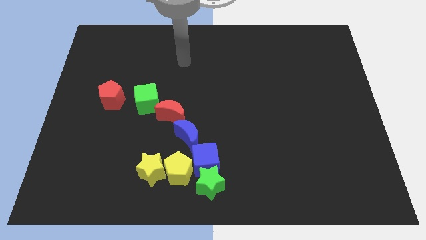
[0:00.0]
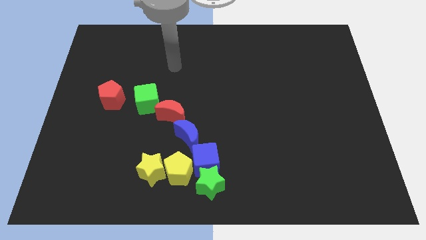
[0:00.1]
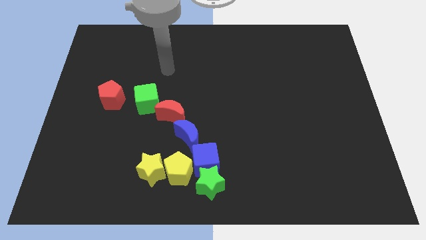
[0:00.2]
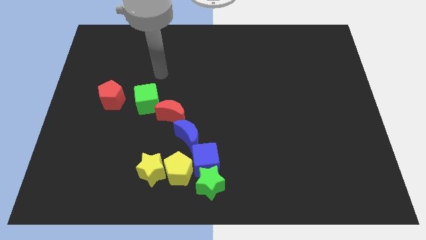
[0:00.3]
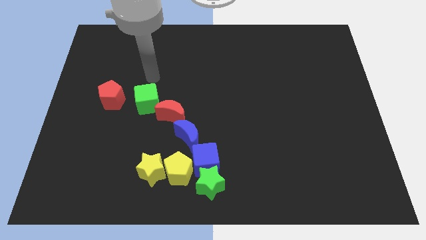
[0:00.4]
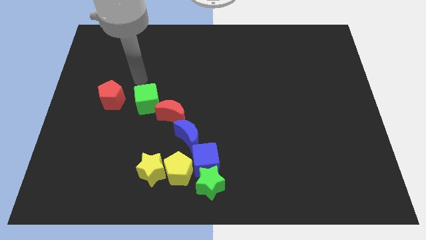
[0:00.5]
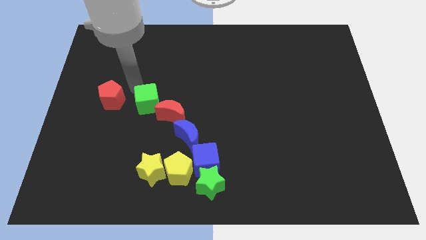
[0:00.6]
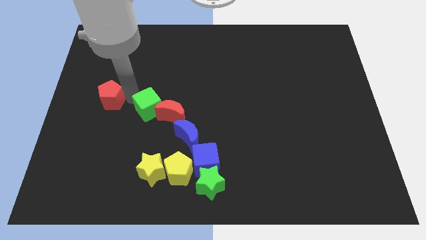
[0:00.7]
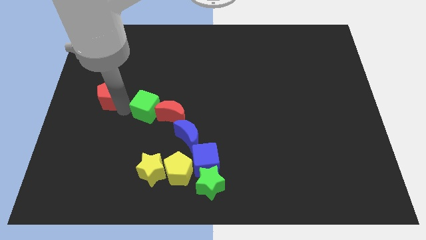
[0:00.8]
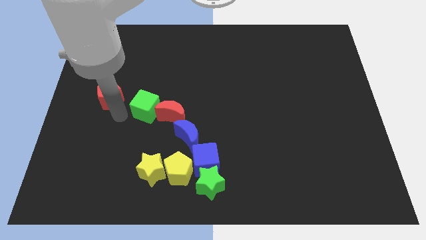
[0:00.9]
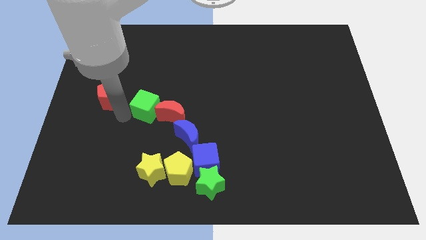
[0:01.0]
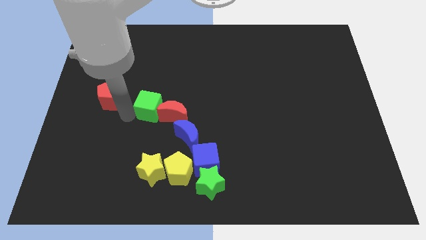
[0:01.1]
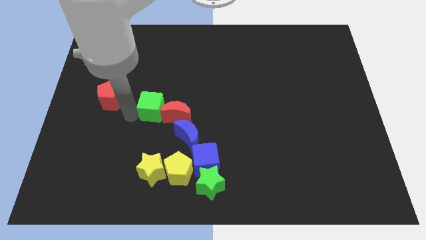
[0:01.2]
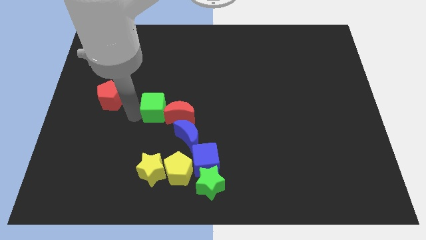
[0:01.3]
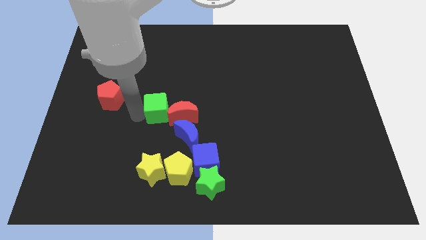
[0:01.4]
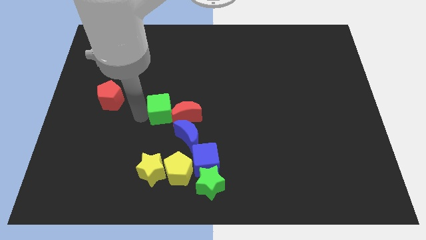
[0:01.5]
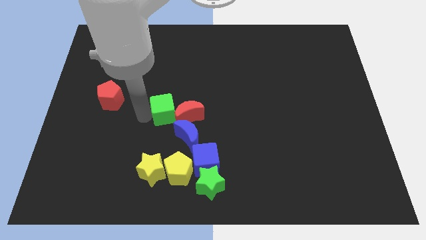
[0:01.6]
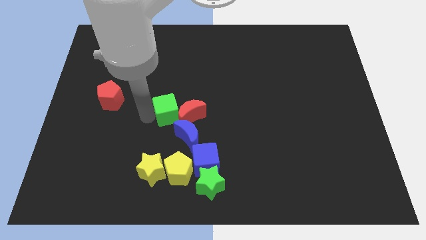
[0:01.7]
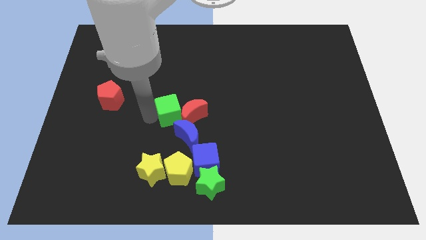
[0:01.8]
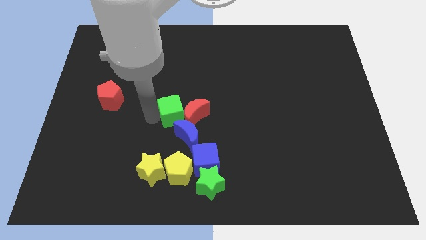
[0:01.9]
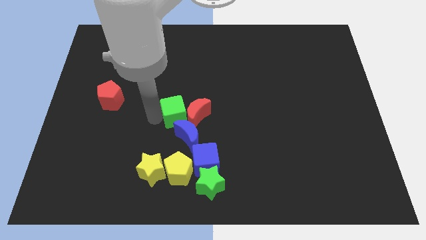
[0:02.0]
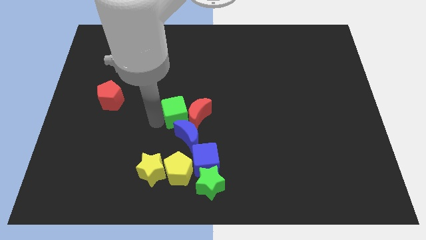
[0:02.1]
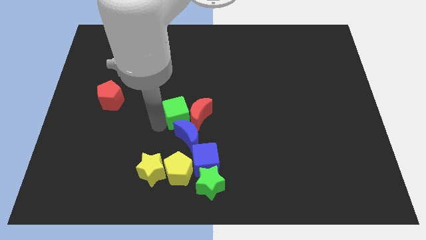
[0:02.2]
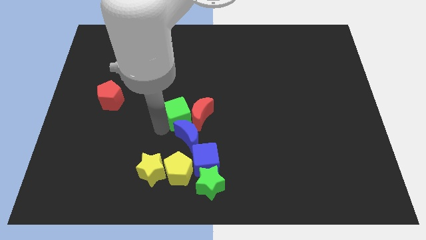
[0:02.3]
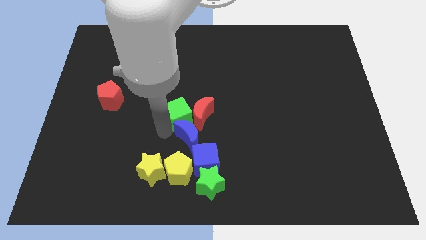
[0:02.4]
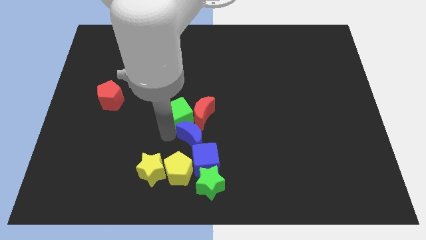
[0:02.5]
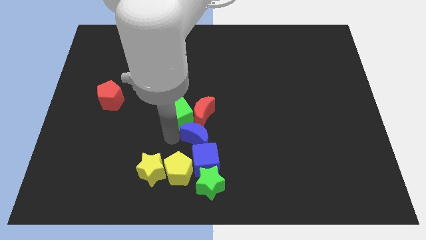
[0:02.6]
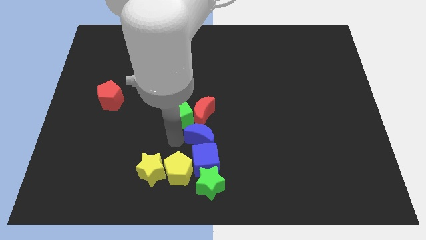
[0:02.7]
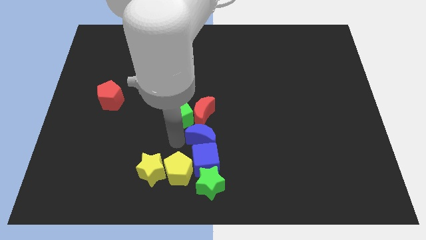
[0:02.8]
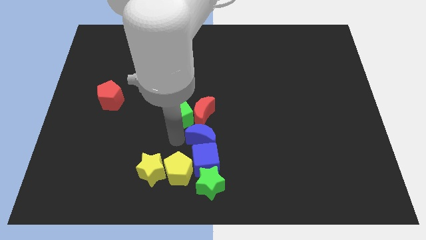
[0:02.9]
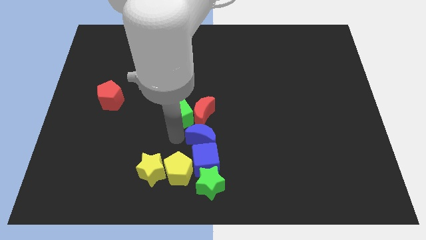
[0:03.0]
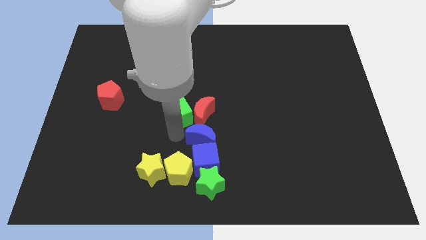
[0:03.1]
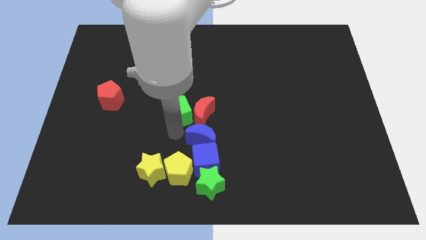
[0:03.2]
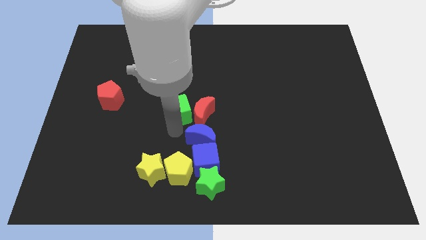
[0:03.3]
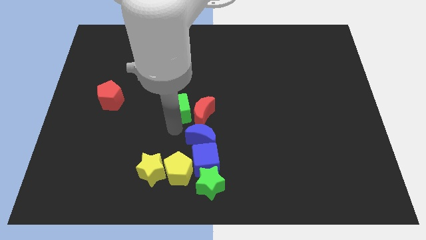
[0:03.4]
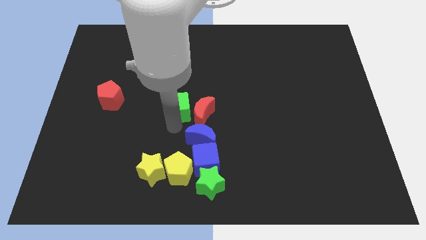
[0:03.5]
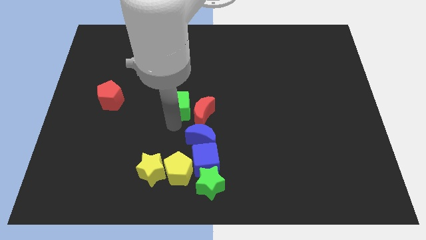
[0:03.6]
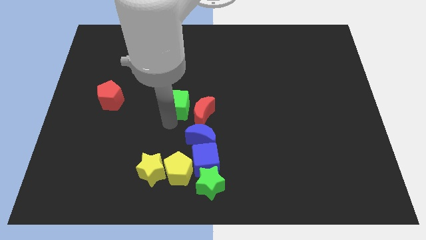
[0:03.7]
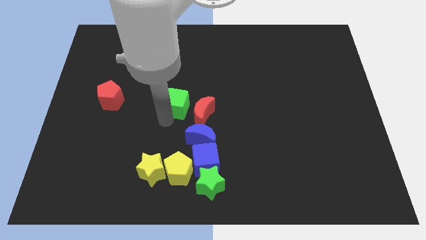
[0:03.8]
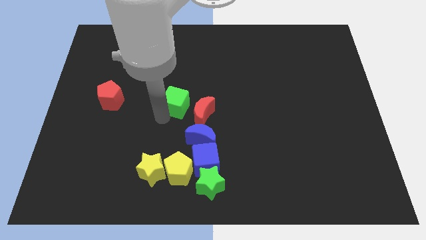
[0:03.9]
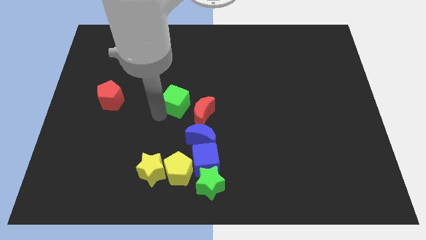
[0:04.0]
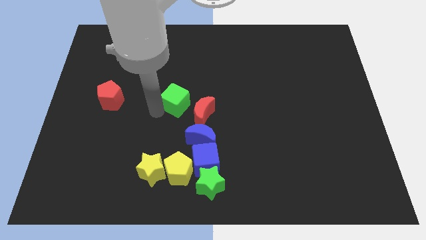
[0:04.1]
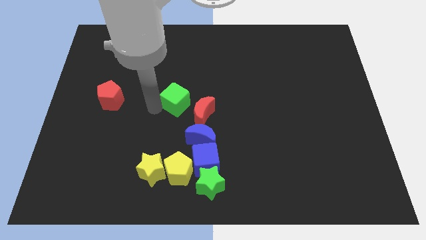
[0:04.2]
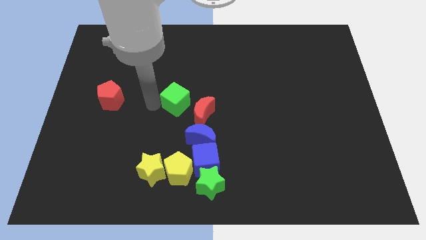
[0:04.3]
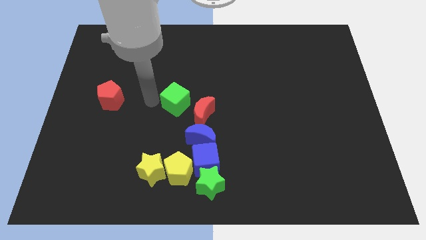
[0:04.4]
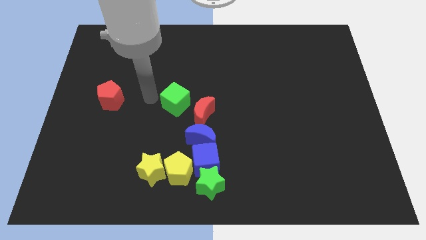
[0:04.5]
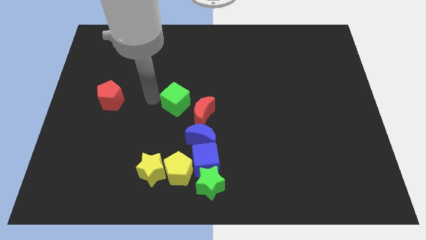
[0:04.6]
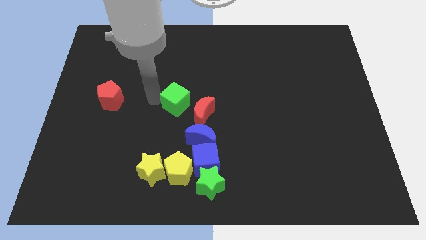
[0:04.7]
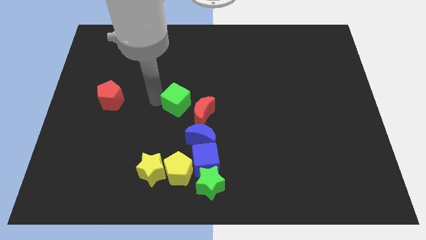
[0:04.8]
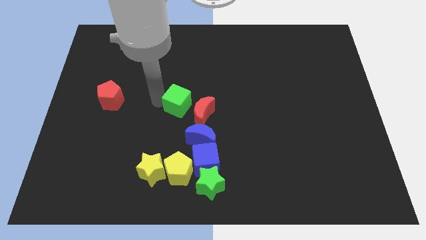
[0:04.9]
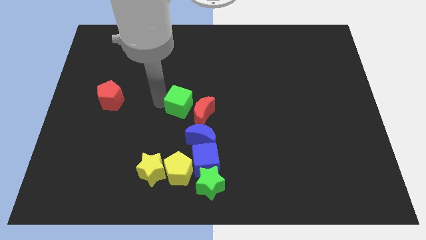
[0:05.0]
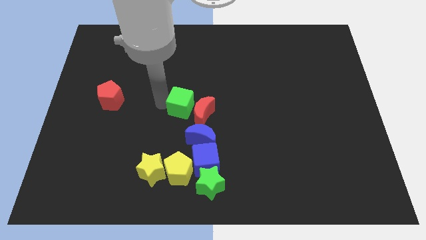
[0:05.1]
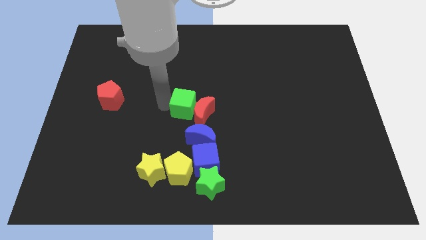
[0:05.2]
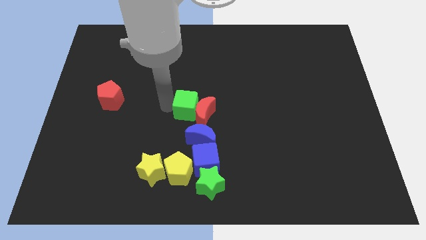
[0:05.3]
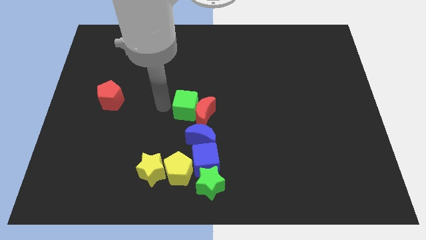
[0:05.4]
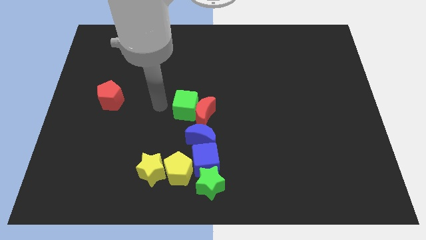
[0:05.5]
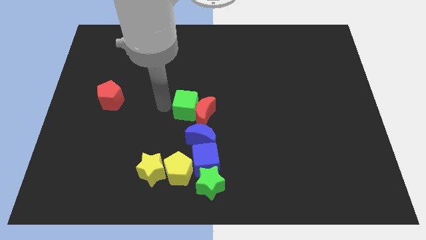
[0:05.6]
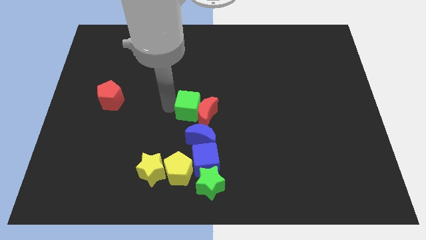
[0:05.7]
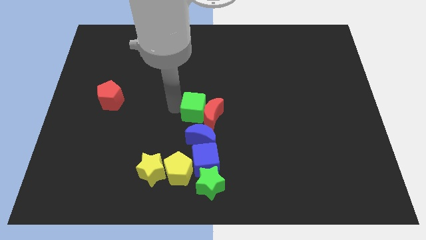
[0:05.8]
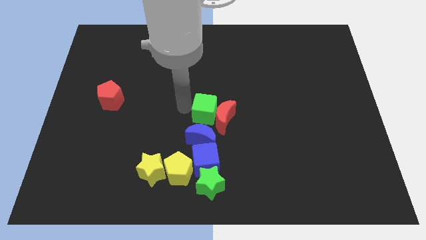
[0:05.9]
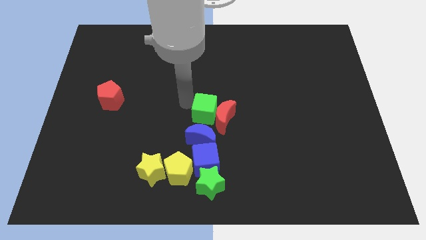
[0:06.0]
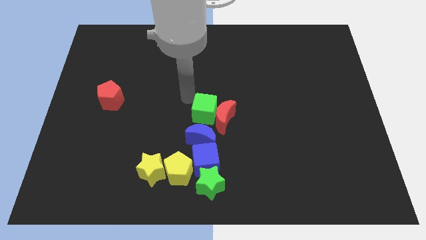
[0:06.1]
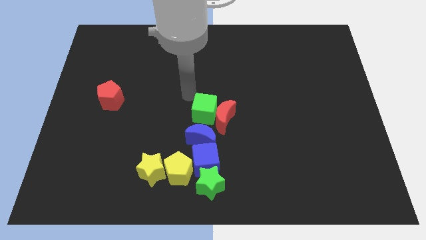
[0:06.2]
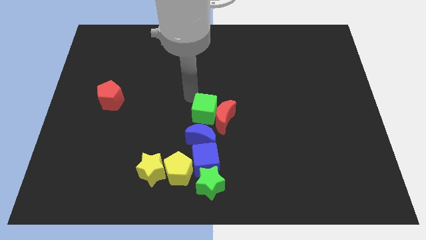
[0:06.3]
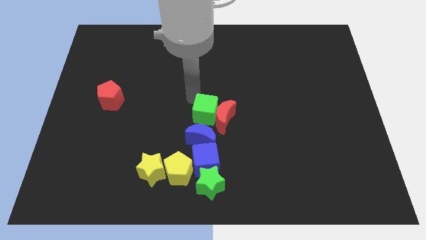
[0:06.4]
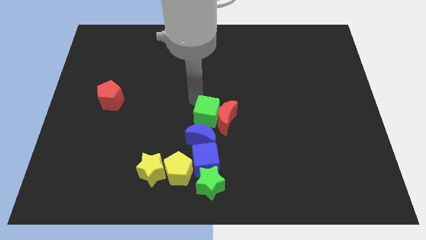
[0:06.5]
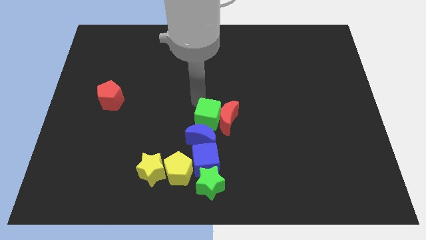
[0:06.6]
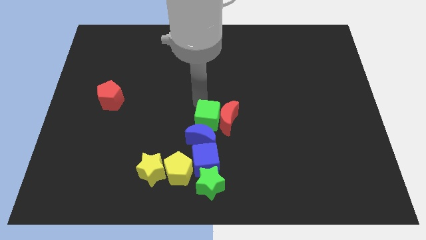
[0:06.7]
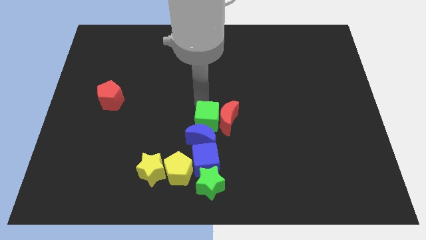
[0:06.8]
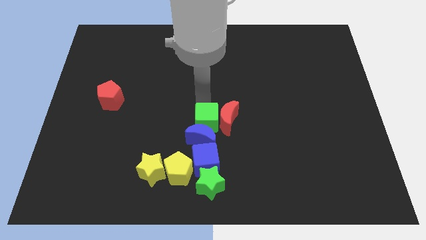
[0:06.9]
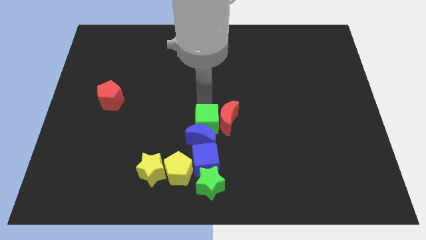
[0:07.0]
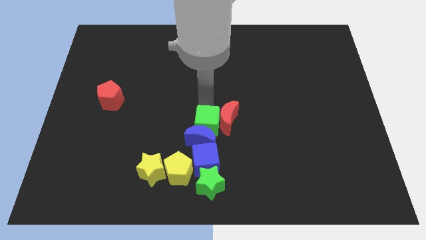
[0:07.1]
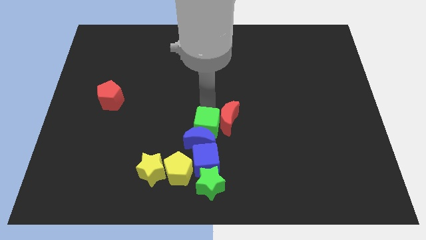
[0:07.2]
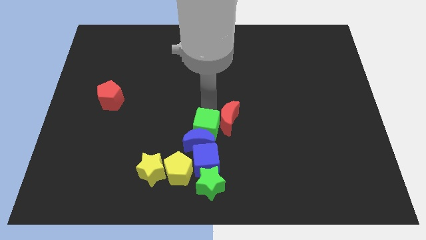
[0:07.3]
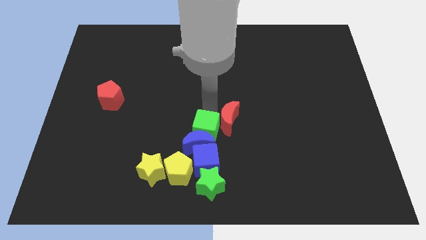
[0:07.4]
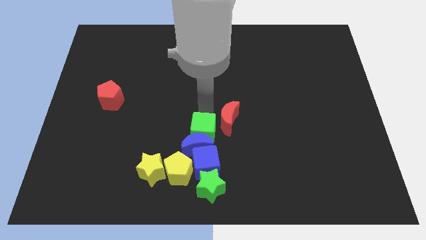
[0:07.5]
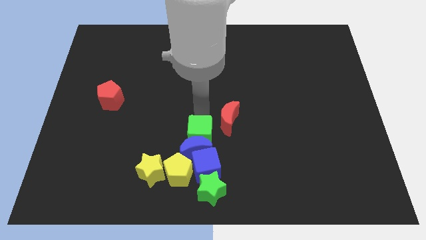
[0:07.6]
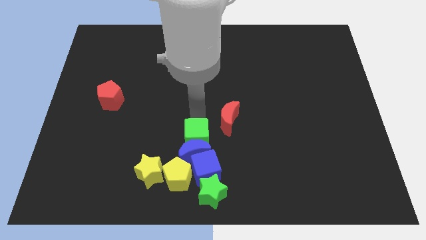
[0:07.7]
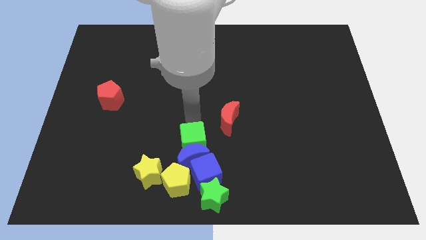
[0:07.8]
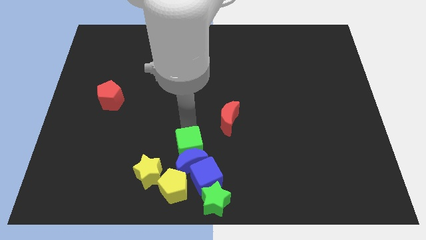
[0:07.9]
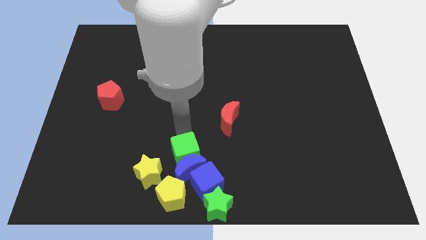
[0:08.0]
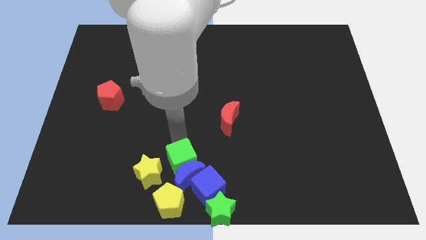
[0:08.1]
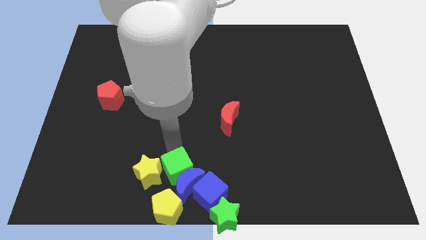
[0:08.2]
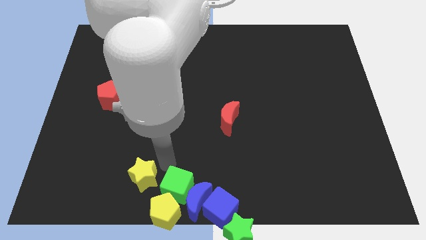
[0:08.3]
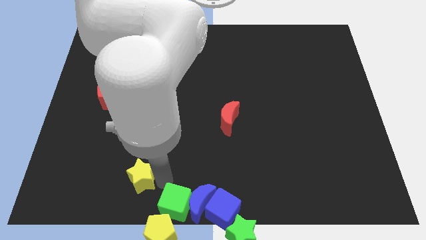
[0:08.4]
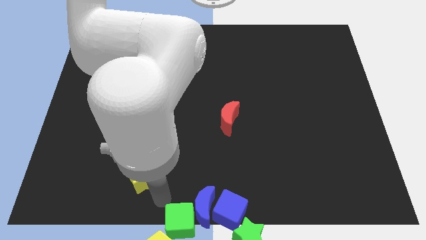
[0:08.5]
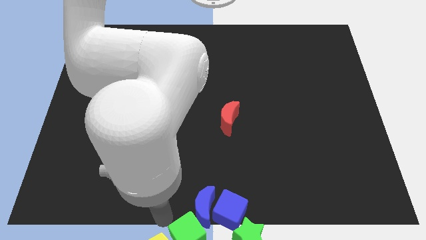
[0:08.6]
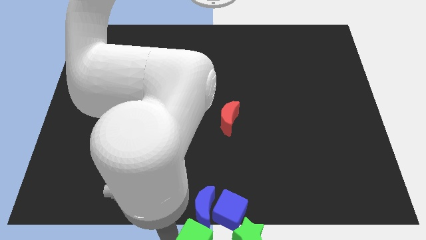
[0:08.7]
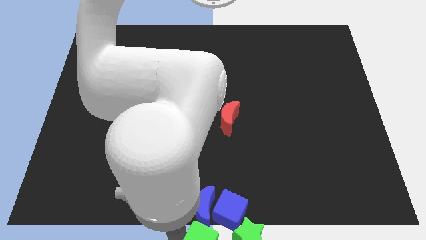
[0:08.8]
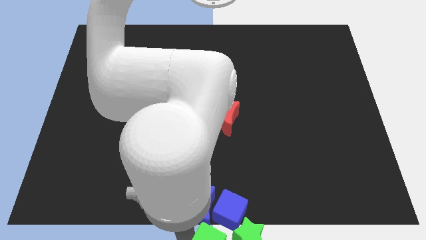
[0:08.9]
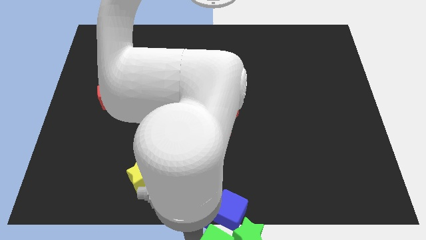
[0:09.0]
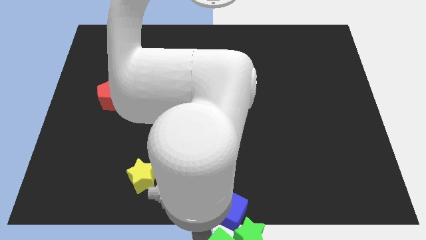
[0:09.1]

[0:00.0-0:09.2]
push the green cube to the green star
